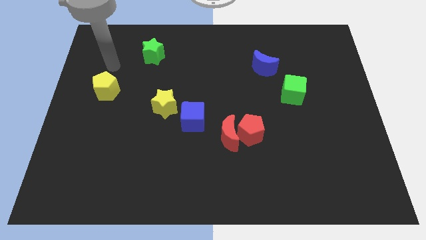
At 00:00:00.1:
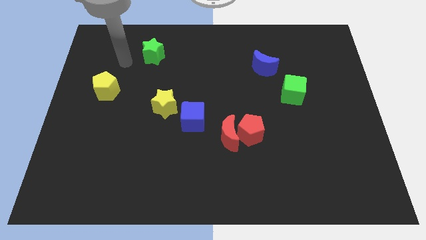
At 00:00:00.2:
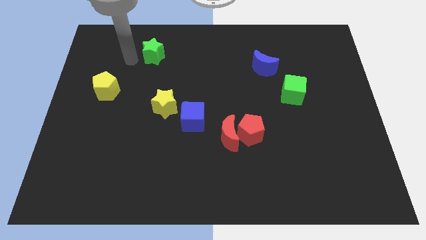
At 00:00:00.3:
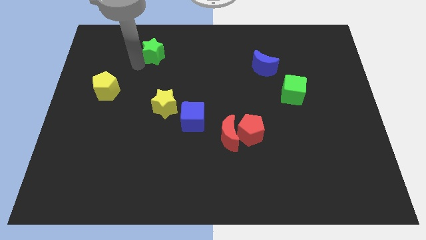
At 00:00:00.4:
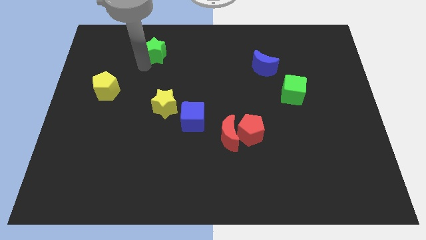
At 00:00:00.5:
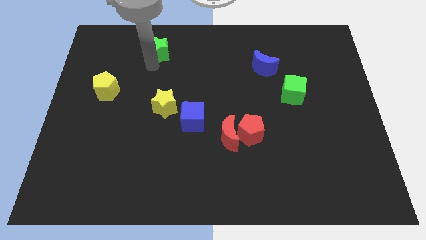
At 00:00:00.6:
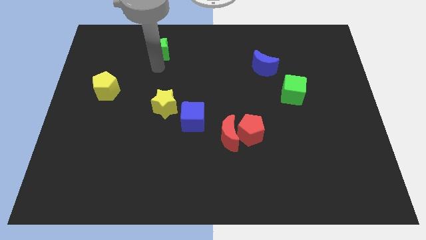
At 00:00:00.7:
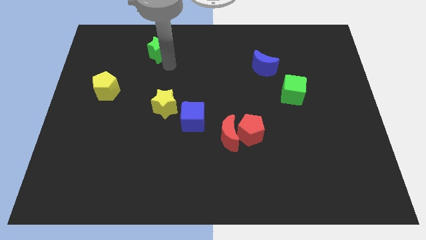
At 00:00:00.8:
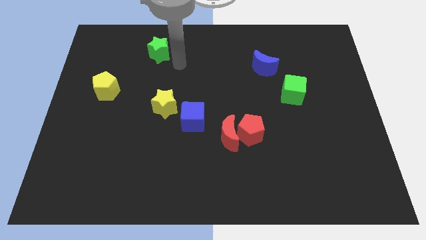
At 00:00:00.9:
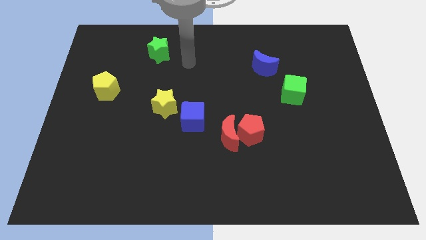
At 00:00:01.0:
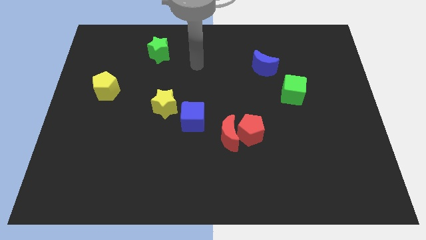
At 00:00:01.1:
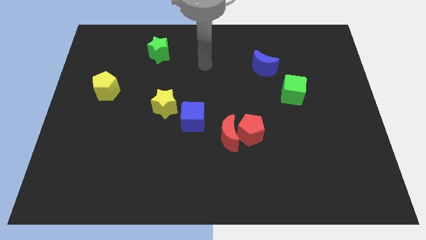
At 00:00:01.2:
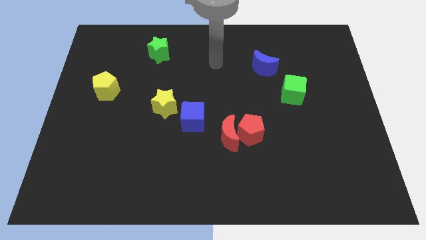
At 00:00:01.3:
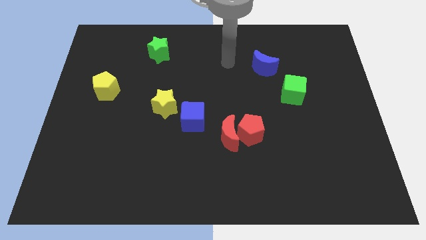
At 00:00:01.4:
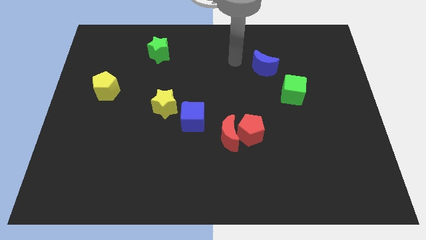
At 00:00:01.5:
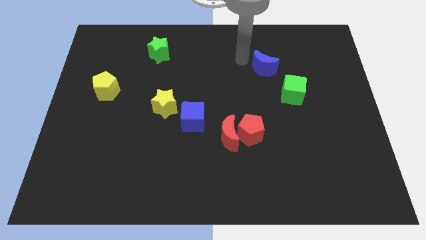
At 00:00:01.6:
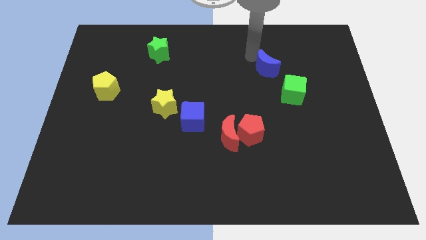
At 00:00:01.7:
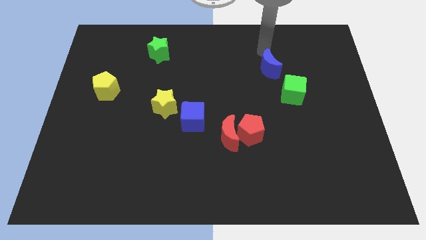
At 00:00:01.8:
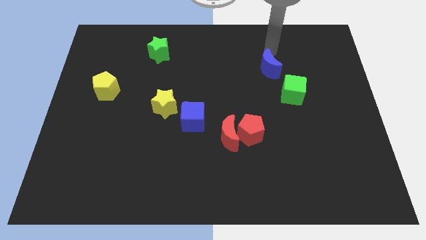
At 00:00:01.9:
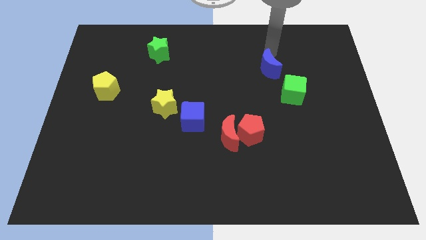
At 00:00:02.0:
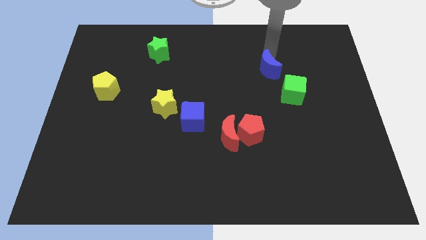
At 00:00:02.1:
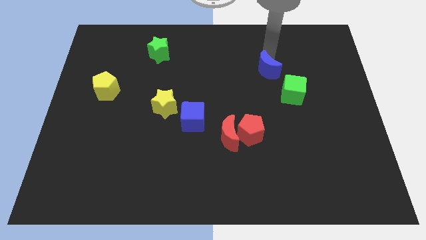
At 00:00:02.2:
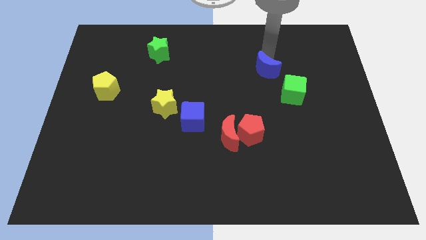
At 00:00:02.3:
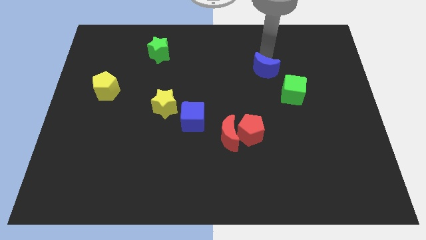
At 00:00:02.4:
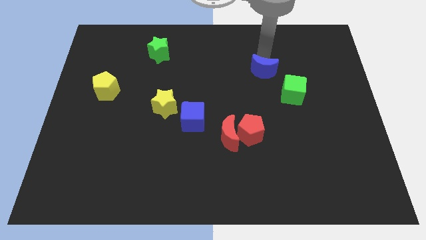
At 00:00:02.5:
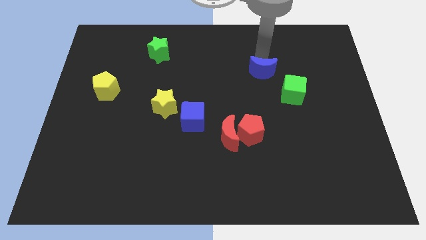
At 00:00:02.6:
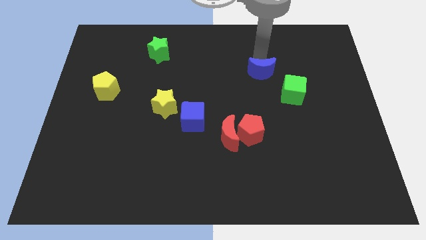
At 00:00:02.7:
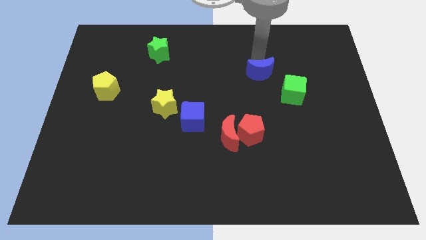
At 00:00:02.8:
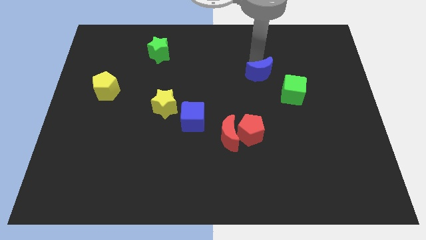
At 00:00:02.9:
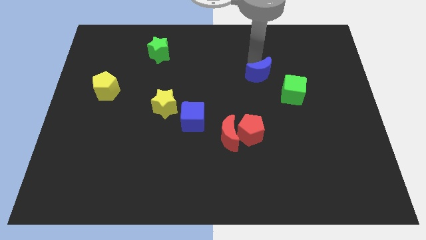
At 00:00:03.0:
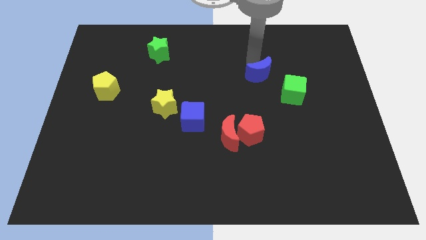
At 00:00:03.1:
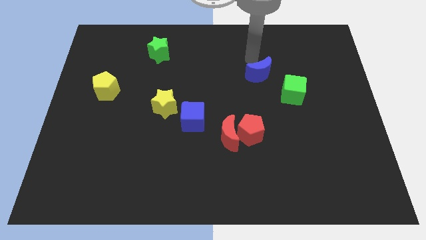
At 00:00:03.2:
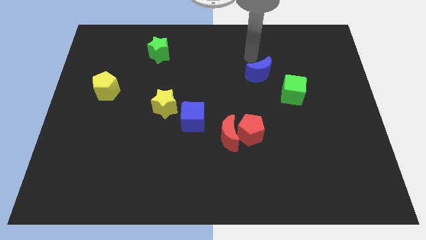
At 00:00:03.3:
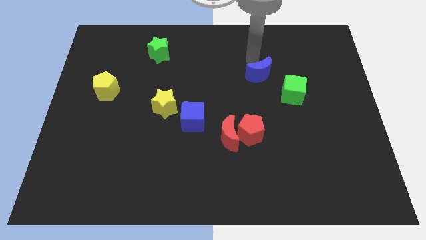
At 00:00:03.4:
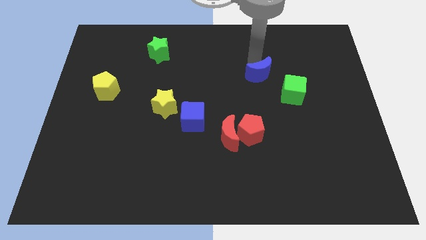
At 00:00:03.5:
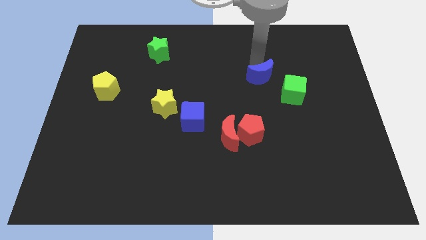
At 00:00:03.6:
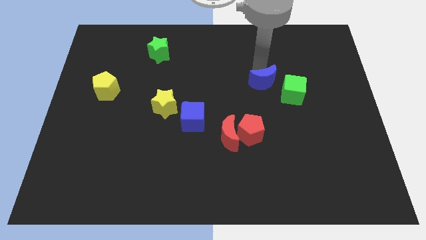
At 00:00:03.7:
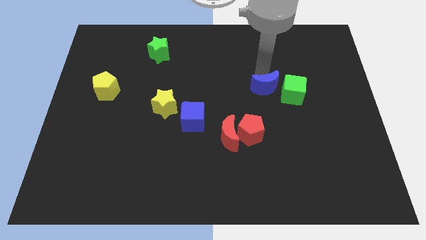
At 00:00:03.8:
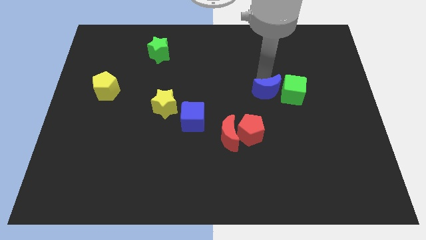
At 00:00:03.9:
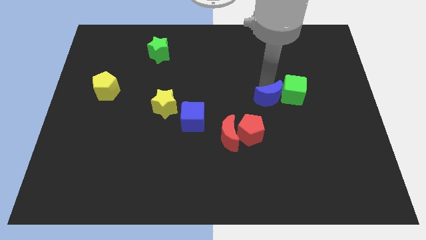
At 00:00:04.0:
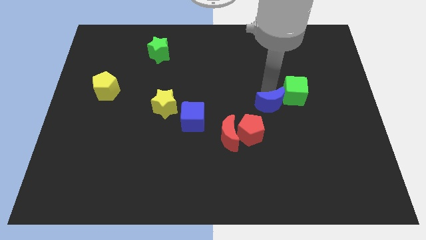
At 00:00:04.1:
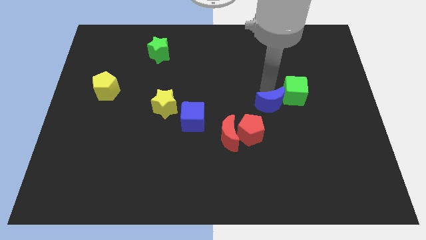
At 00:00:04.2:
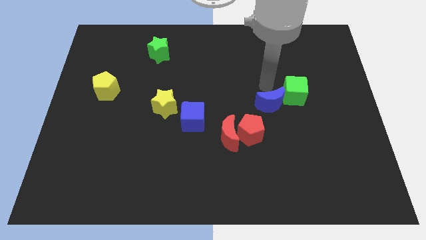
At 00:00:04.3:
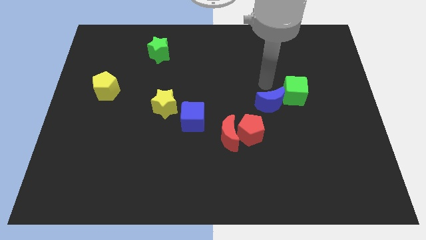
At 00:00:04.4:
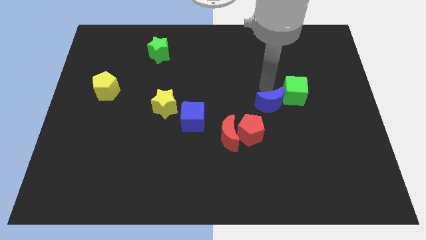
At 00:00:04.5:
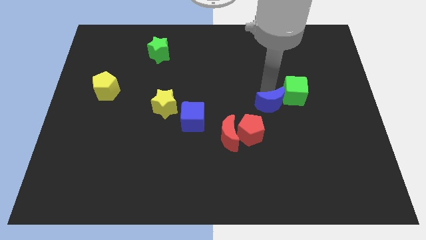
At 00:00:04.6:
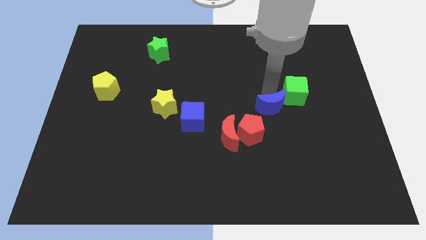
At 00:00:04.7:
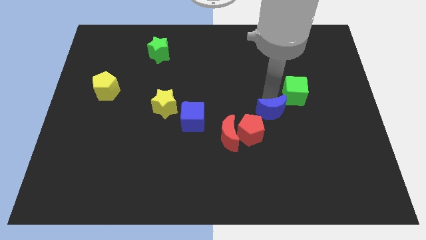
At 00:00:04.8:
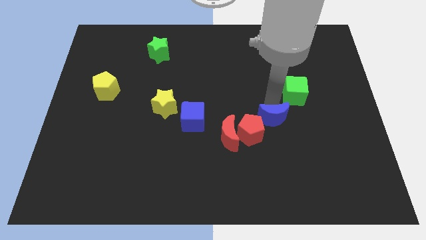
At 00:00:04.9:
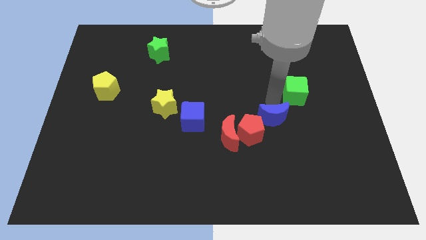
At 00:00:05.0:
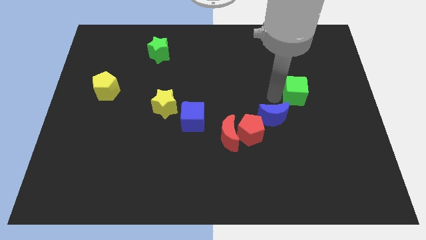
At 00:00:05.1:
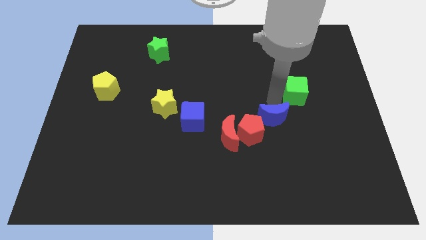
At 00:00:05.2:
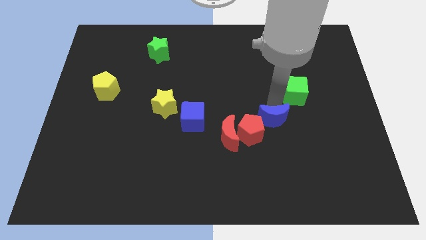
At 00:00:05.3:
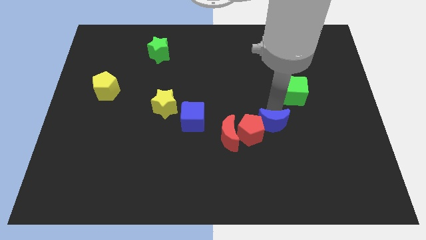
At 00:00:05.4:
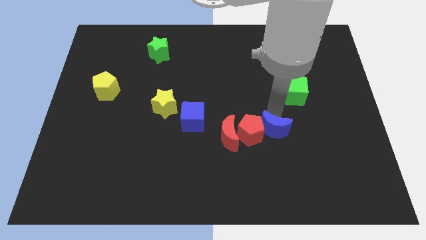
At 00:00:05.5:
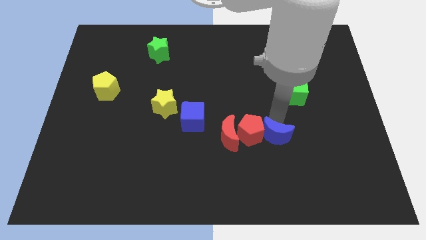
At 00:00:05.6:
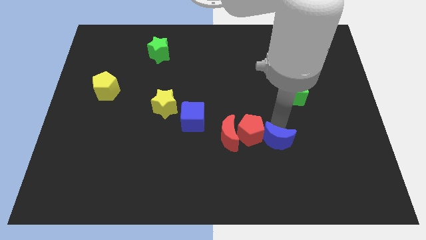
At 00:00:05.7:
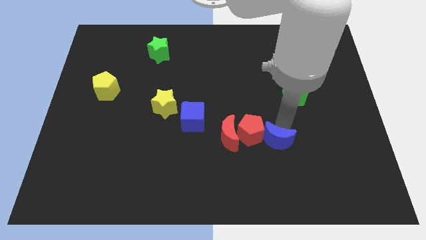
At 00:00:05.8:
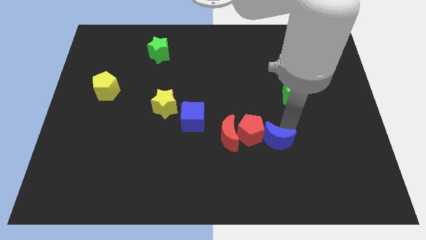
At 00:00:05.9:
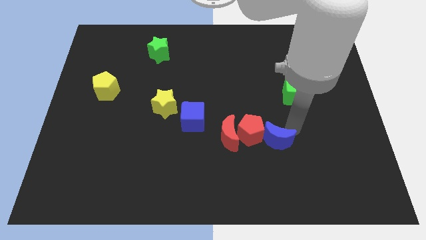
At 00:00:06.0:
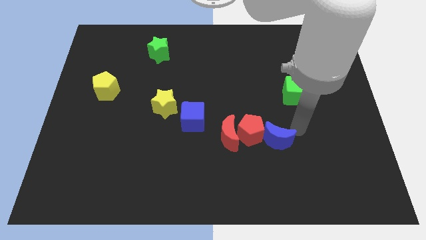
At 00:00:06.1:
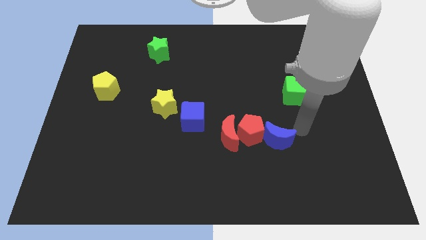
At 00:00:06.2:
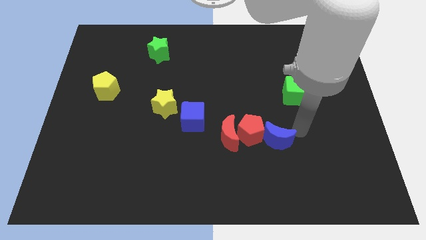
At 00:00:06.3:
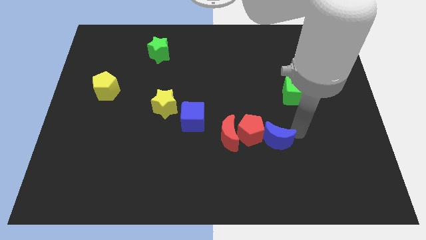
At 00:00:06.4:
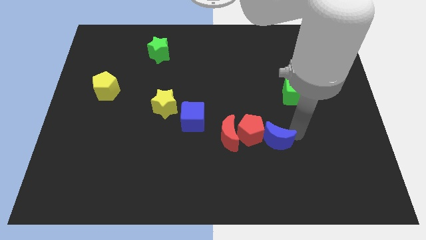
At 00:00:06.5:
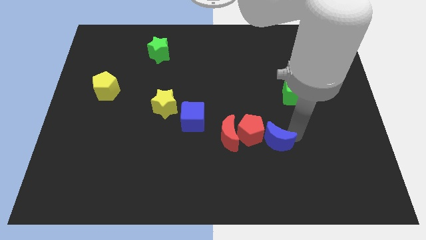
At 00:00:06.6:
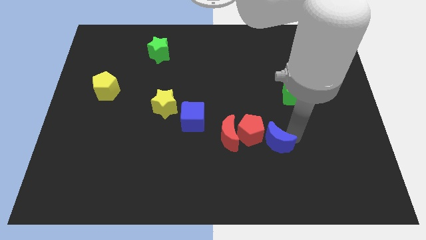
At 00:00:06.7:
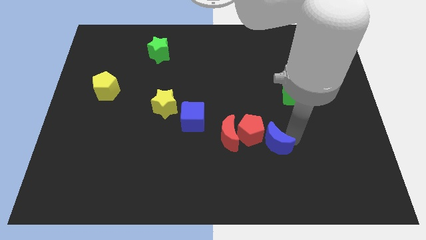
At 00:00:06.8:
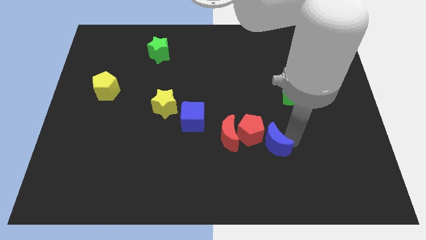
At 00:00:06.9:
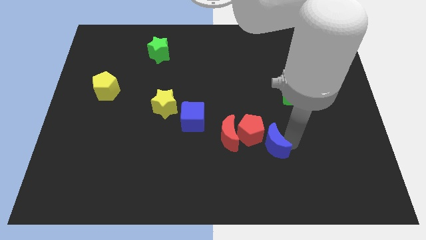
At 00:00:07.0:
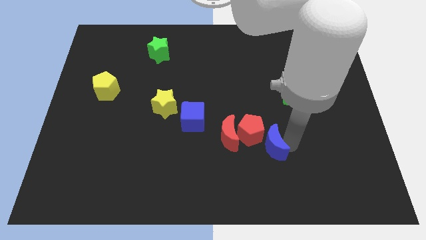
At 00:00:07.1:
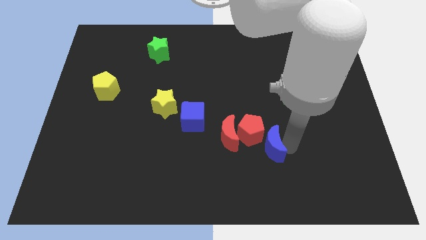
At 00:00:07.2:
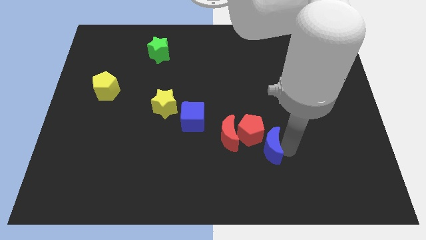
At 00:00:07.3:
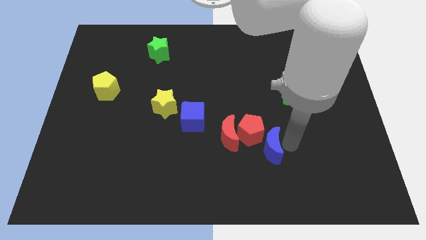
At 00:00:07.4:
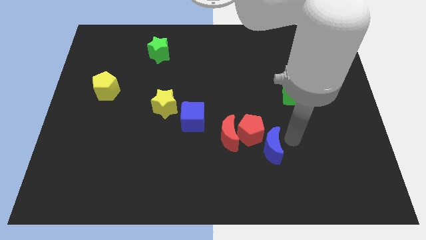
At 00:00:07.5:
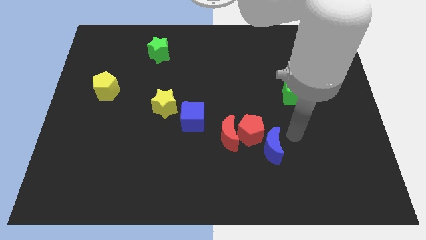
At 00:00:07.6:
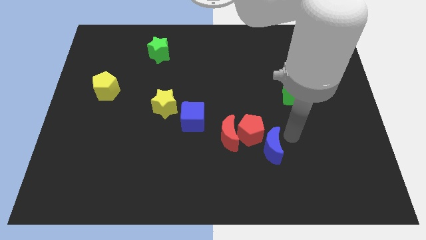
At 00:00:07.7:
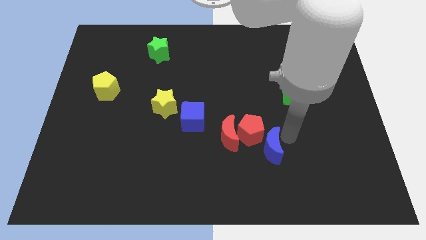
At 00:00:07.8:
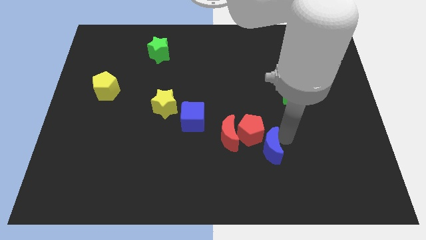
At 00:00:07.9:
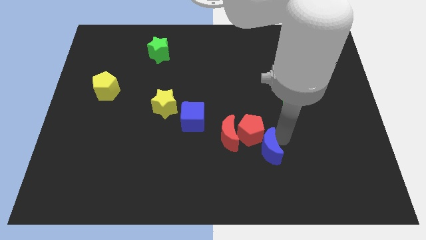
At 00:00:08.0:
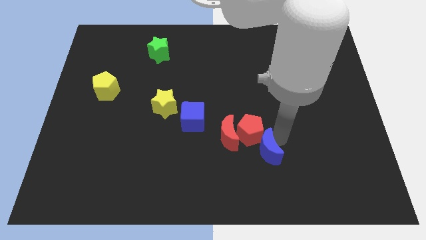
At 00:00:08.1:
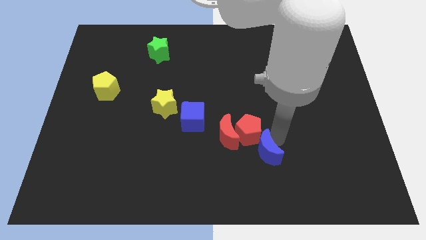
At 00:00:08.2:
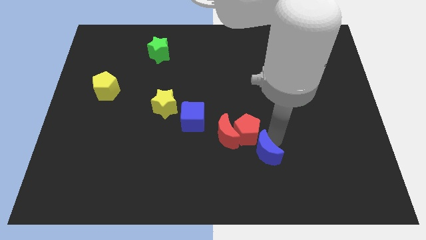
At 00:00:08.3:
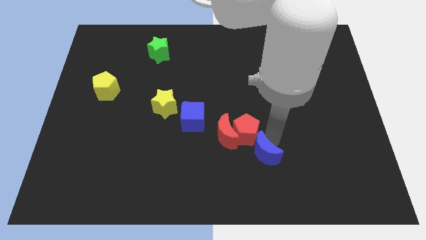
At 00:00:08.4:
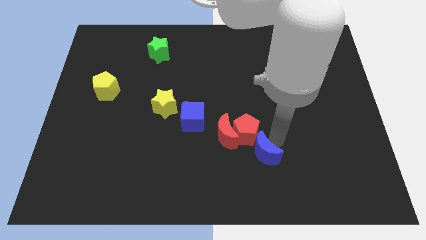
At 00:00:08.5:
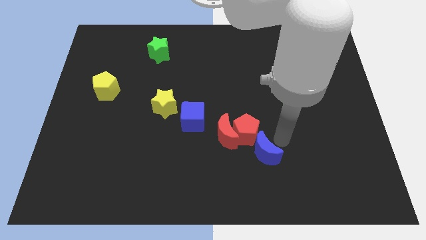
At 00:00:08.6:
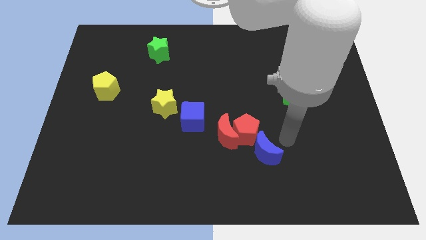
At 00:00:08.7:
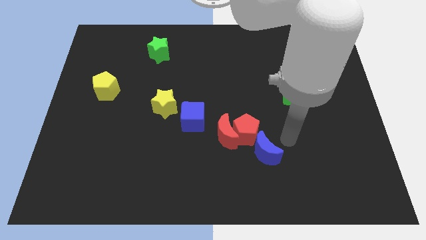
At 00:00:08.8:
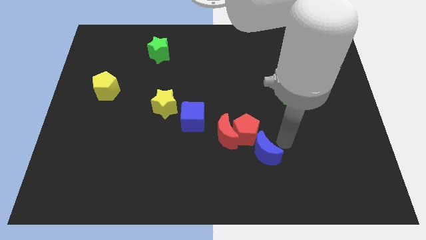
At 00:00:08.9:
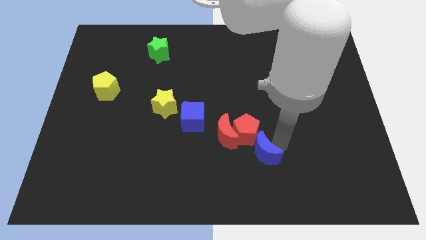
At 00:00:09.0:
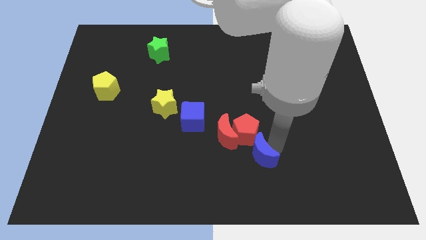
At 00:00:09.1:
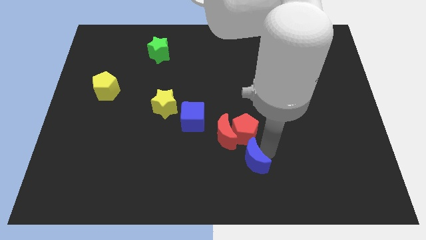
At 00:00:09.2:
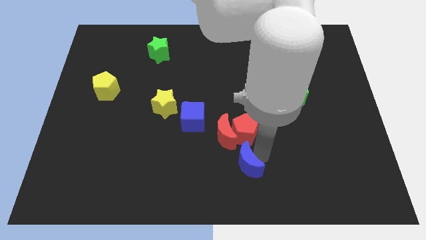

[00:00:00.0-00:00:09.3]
push the blue moon to the bottom side of the red moon
